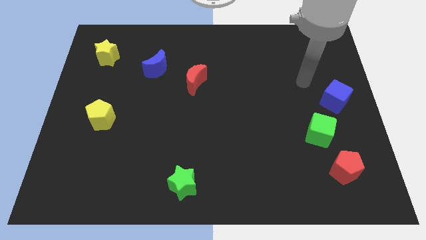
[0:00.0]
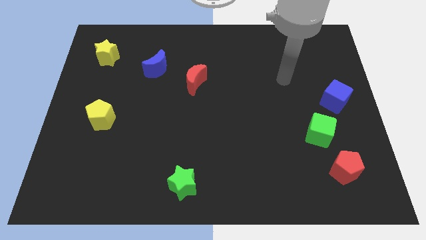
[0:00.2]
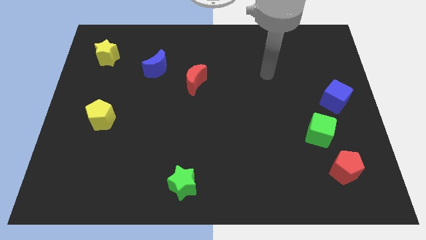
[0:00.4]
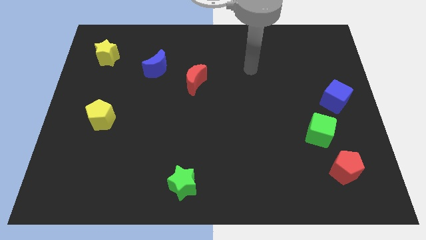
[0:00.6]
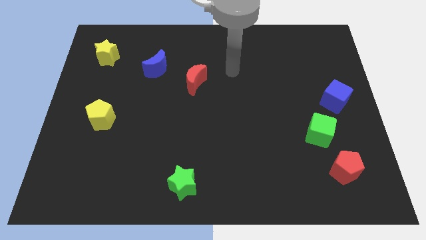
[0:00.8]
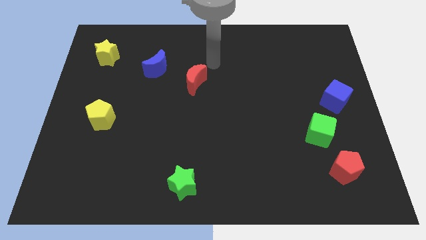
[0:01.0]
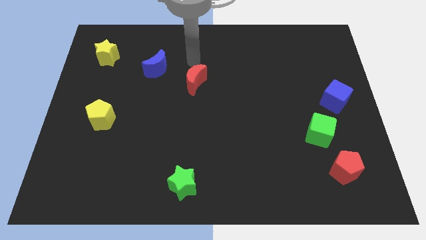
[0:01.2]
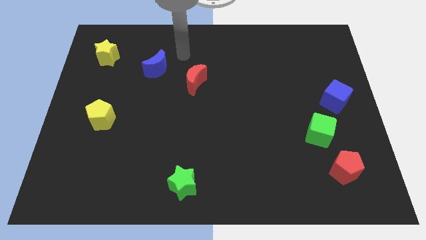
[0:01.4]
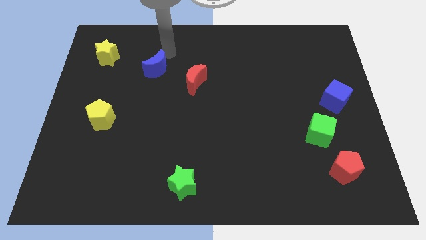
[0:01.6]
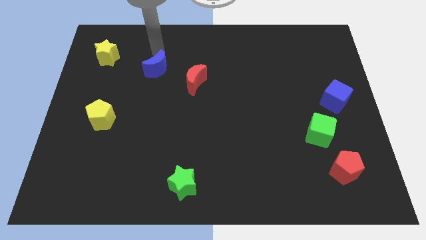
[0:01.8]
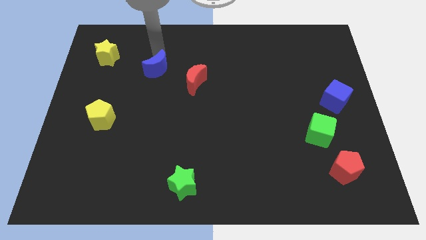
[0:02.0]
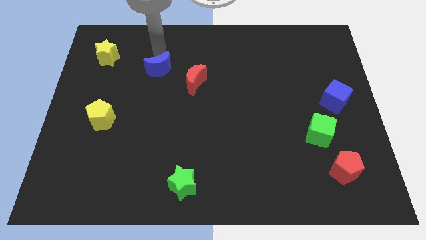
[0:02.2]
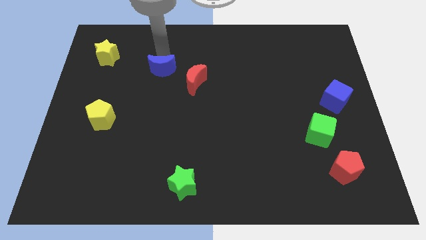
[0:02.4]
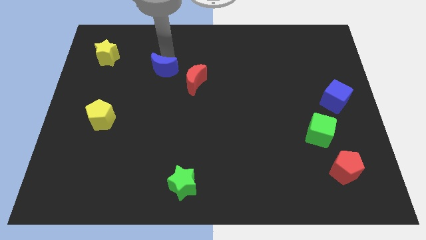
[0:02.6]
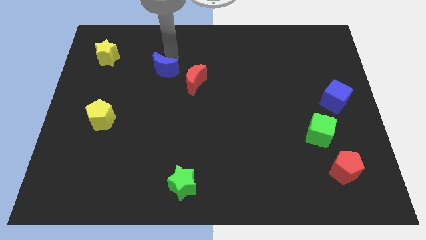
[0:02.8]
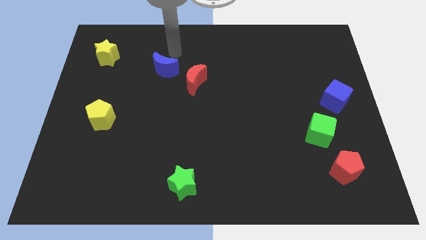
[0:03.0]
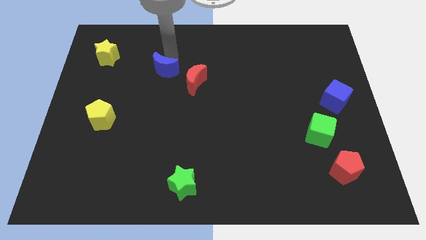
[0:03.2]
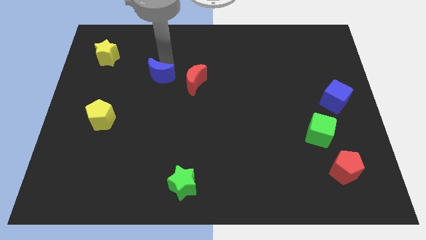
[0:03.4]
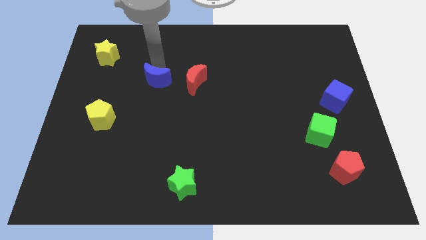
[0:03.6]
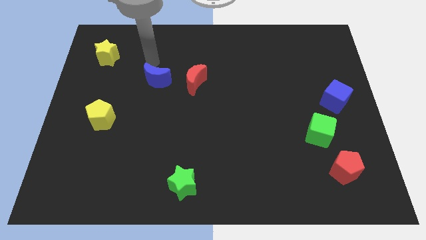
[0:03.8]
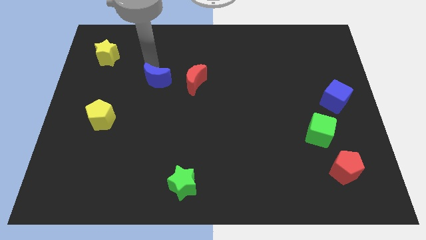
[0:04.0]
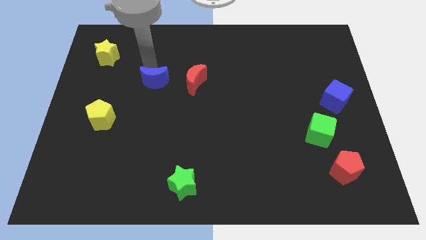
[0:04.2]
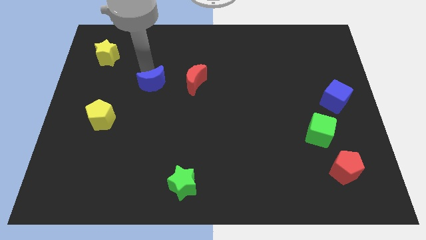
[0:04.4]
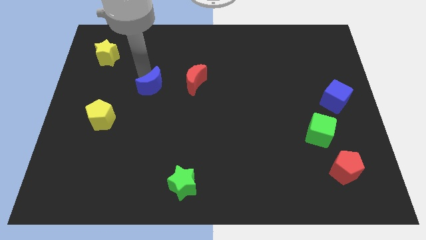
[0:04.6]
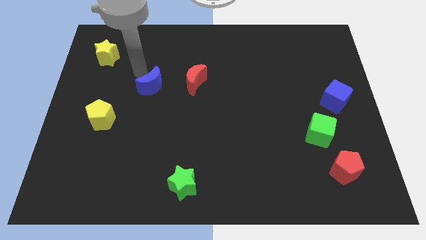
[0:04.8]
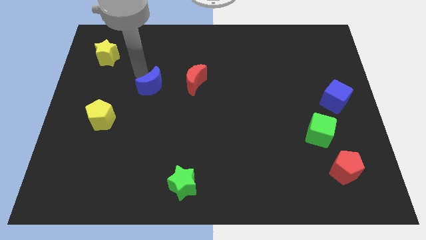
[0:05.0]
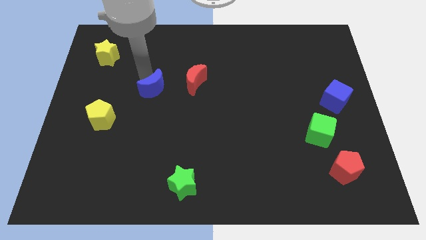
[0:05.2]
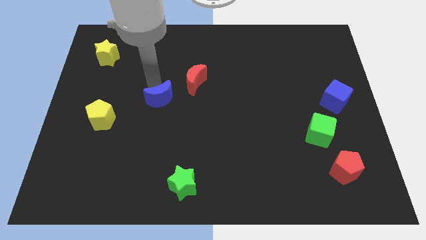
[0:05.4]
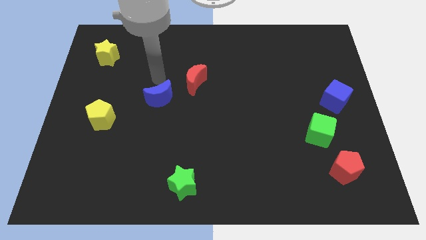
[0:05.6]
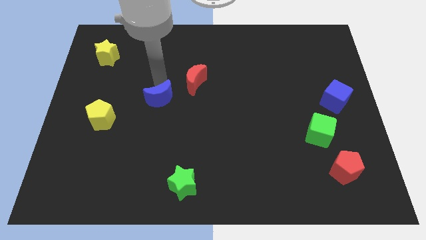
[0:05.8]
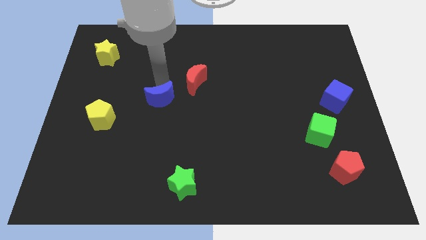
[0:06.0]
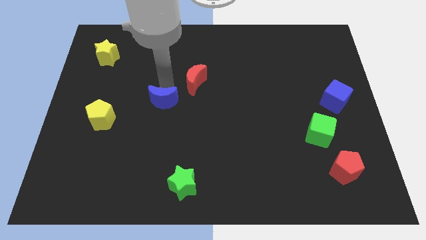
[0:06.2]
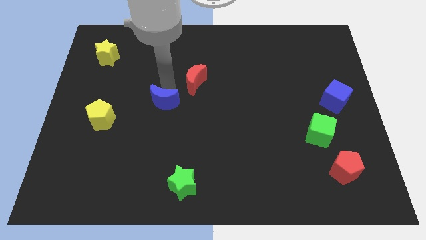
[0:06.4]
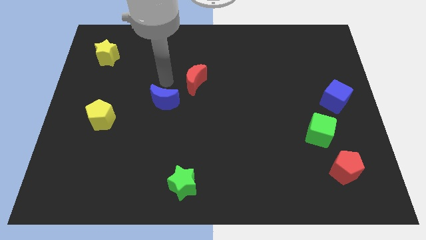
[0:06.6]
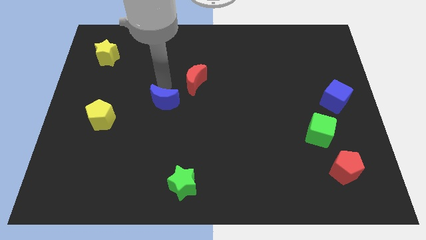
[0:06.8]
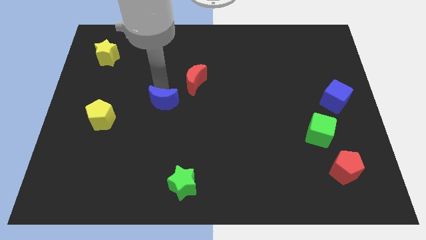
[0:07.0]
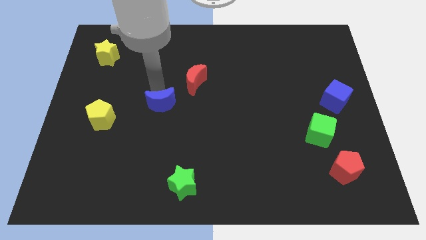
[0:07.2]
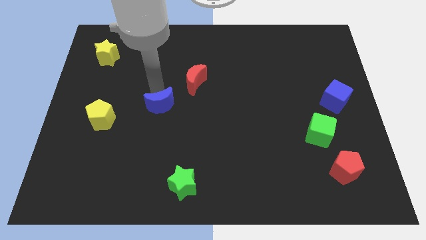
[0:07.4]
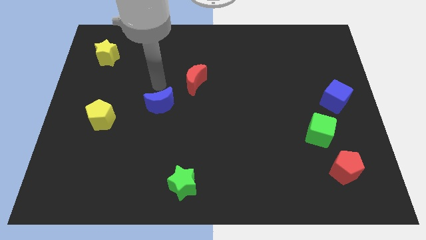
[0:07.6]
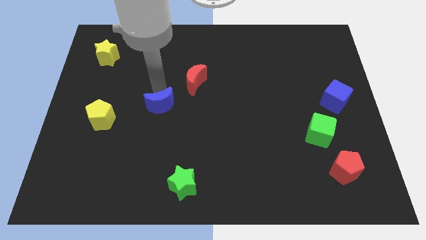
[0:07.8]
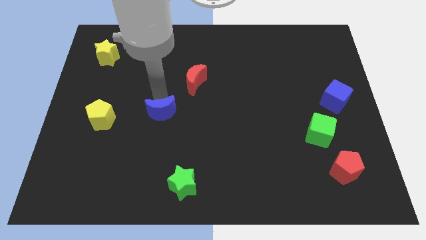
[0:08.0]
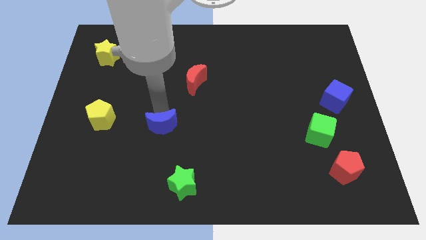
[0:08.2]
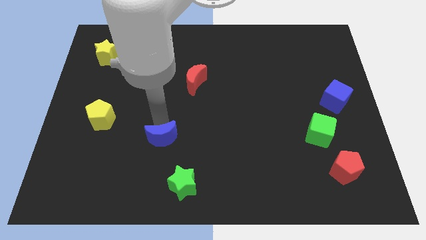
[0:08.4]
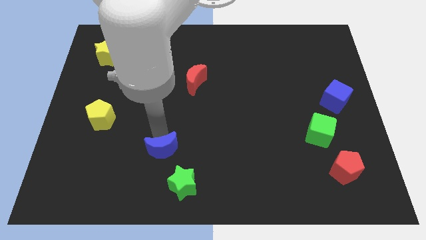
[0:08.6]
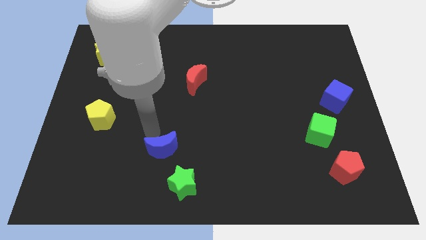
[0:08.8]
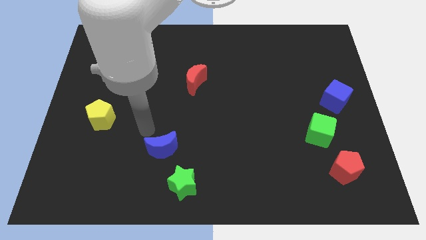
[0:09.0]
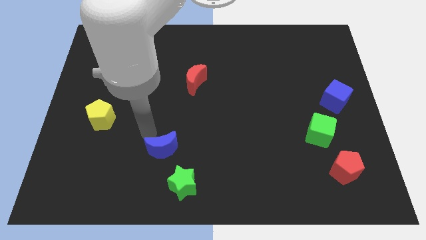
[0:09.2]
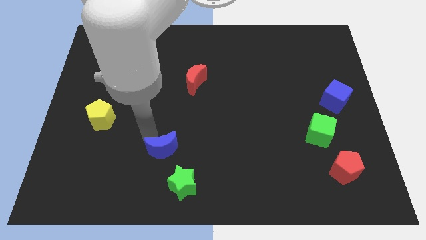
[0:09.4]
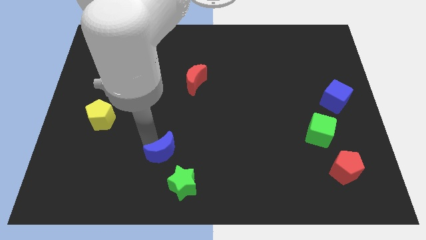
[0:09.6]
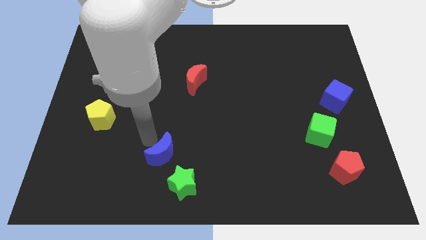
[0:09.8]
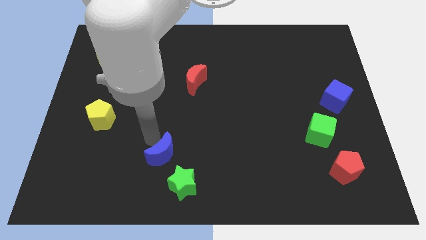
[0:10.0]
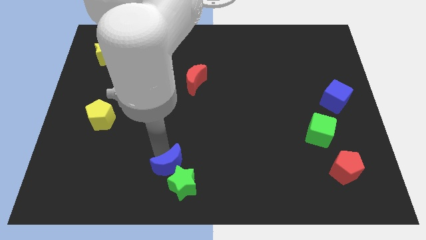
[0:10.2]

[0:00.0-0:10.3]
push the blue moon towards the green star

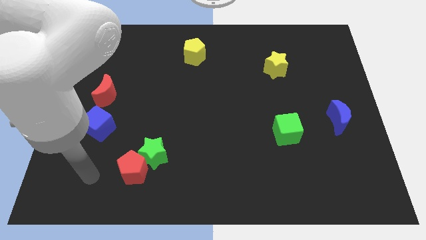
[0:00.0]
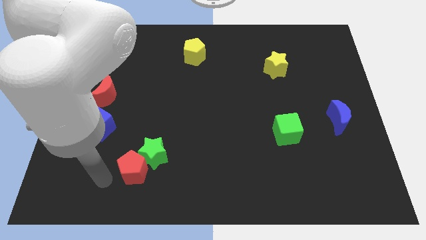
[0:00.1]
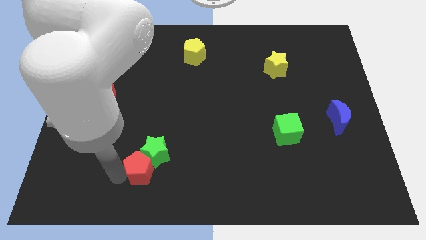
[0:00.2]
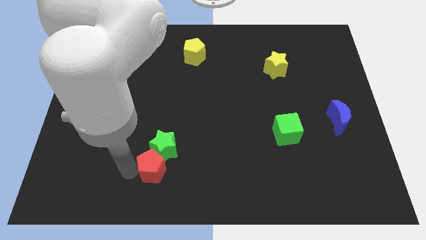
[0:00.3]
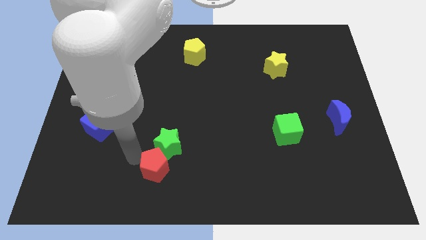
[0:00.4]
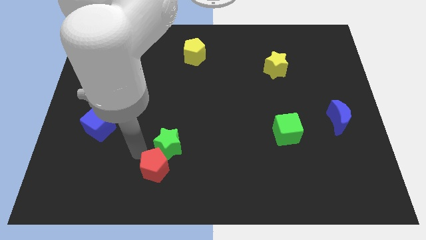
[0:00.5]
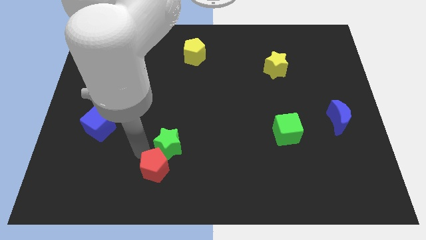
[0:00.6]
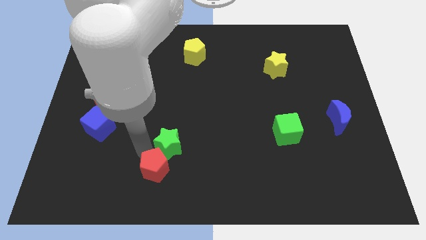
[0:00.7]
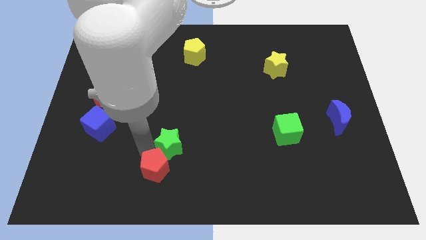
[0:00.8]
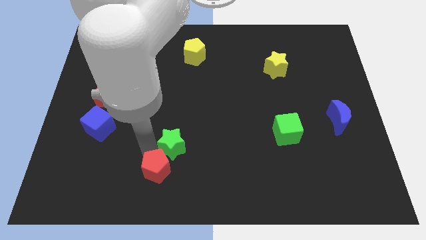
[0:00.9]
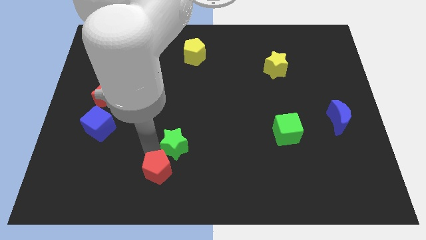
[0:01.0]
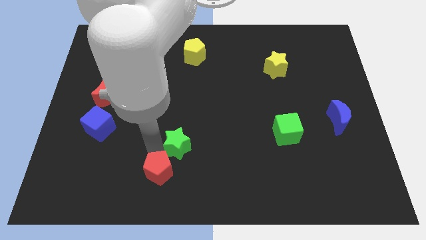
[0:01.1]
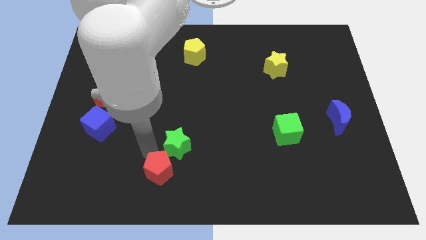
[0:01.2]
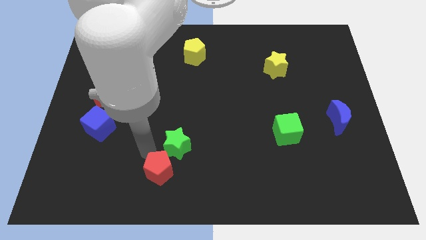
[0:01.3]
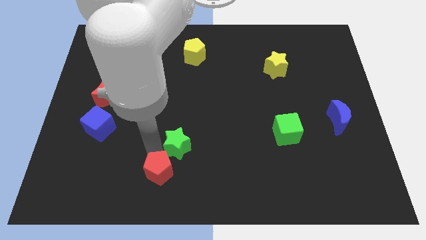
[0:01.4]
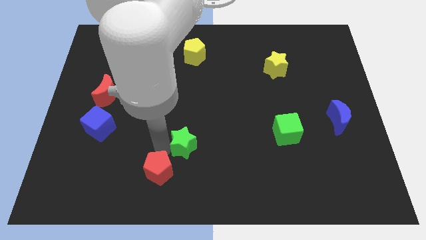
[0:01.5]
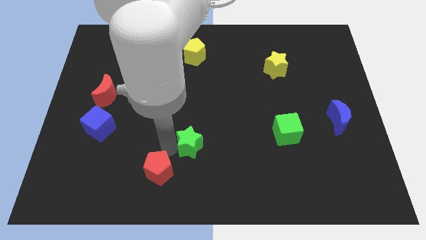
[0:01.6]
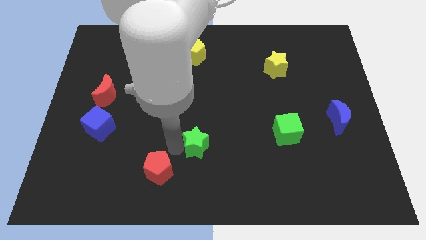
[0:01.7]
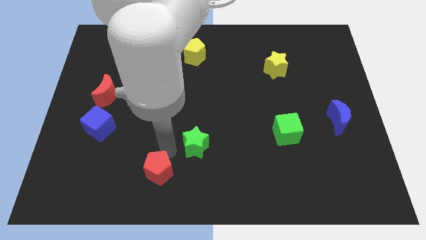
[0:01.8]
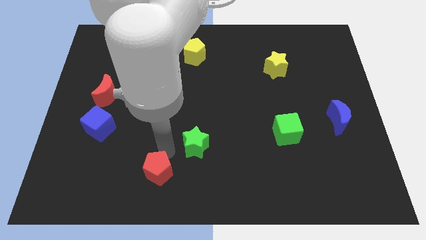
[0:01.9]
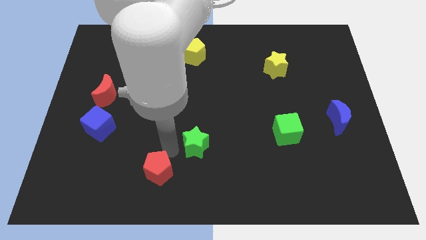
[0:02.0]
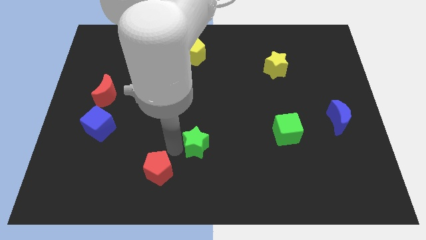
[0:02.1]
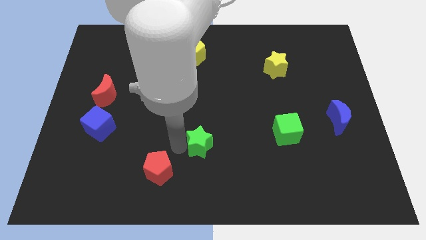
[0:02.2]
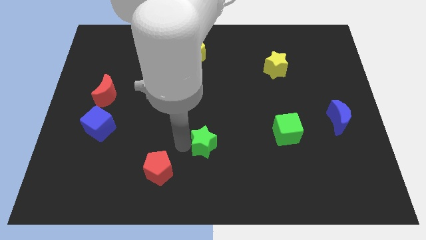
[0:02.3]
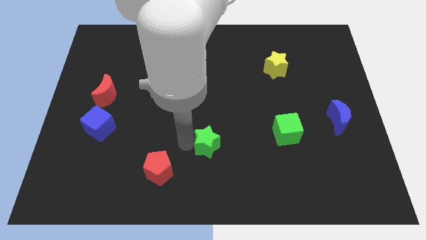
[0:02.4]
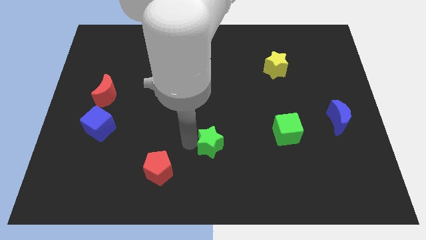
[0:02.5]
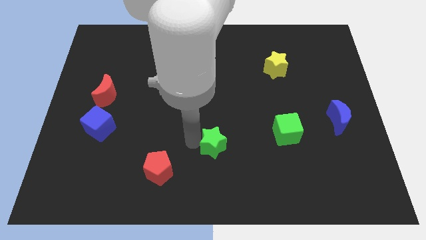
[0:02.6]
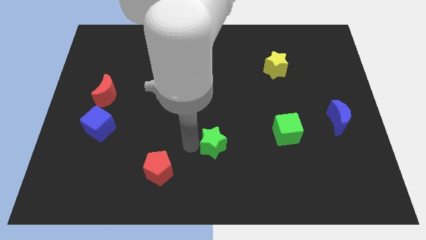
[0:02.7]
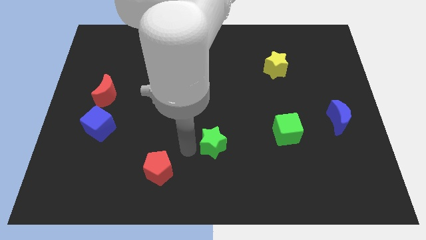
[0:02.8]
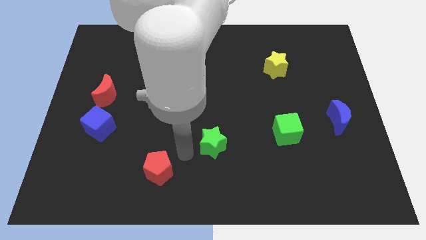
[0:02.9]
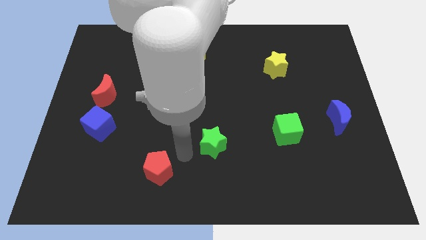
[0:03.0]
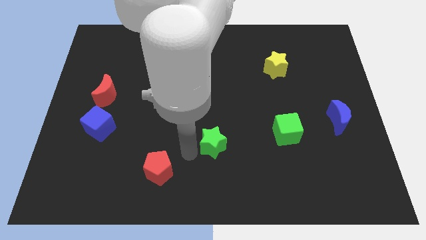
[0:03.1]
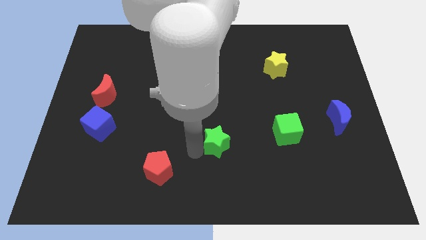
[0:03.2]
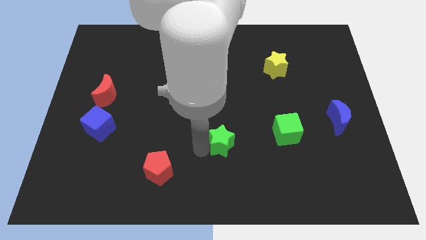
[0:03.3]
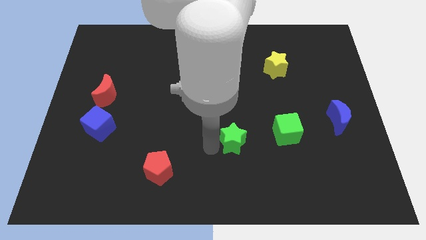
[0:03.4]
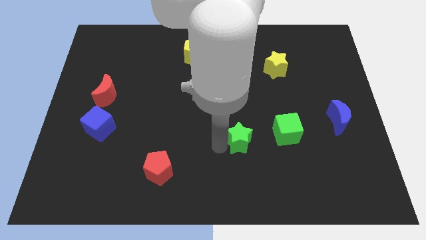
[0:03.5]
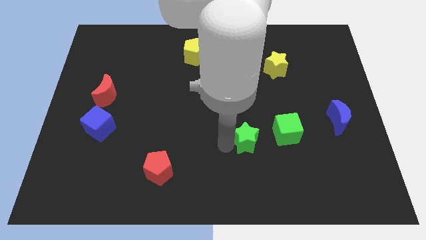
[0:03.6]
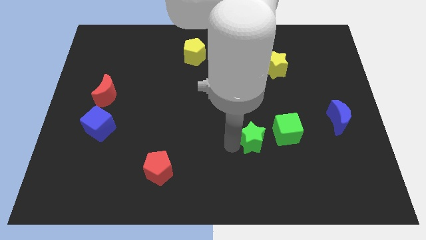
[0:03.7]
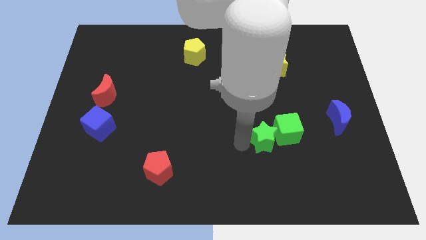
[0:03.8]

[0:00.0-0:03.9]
push the green star close to the green cube
